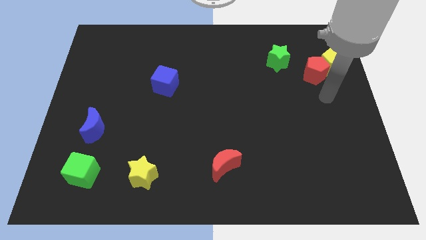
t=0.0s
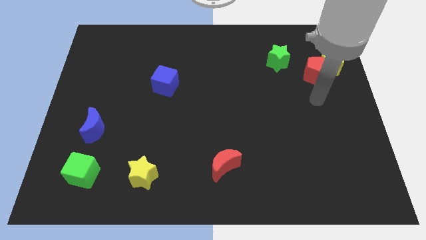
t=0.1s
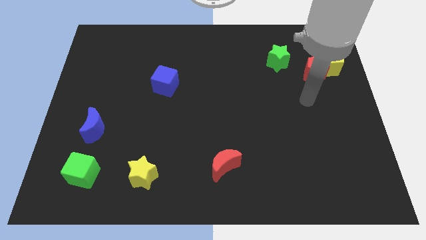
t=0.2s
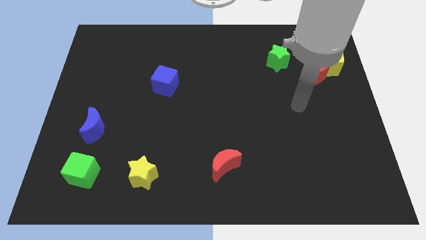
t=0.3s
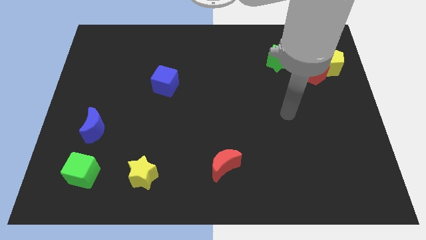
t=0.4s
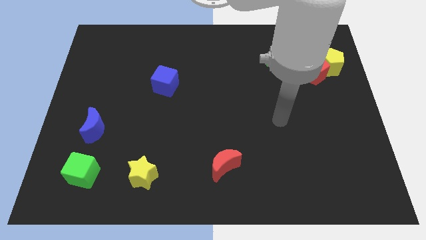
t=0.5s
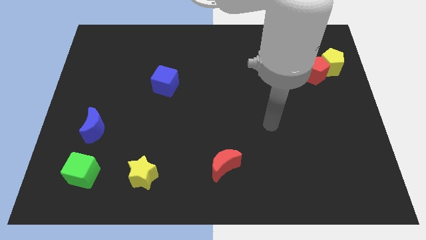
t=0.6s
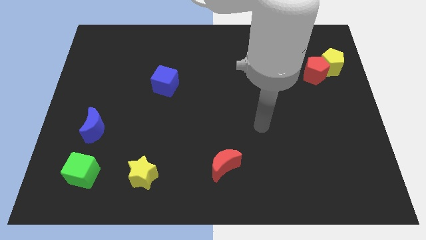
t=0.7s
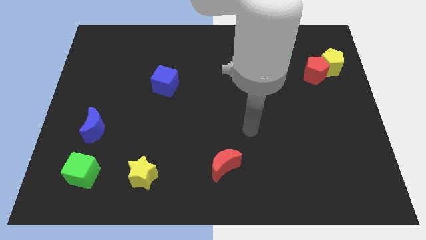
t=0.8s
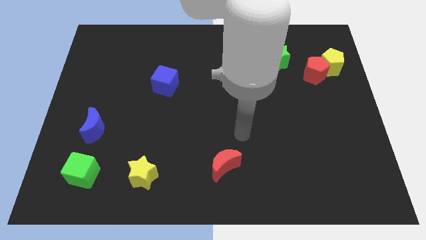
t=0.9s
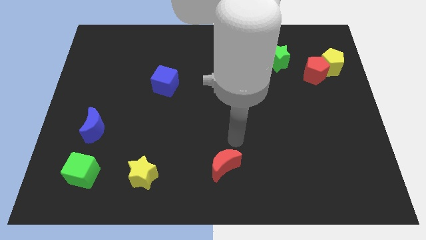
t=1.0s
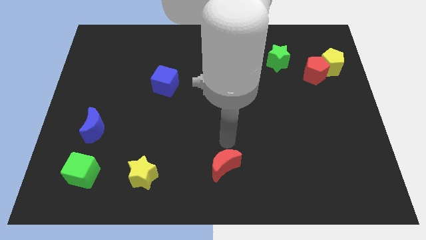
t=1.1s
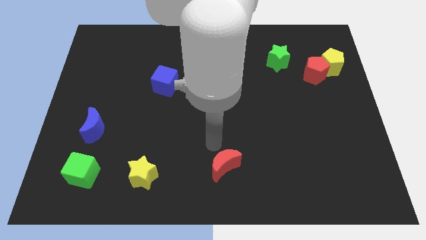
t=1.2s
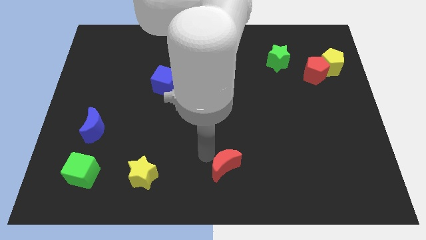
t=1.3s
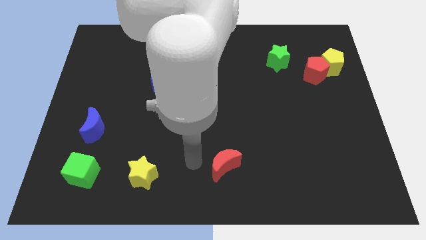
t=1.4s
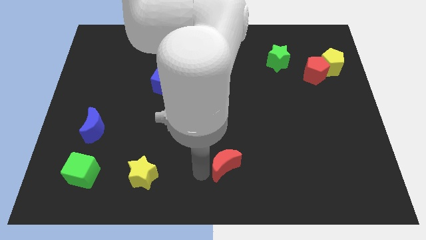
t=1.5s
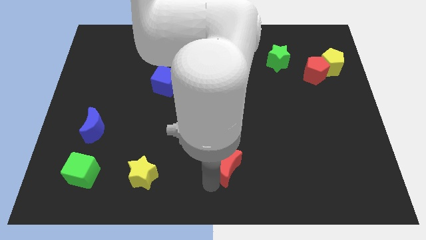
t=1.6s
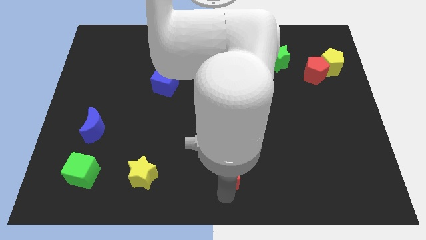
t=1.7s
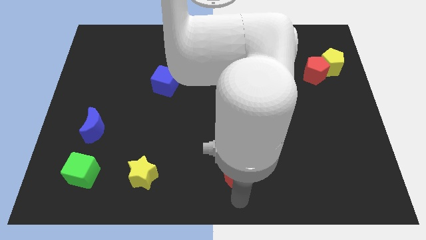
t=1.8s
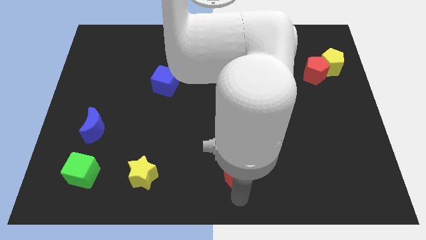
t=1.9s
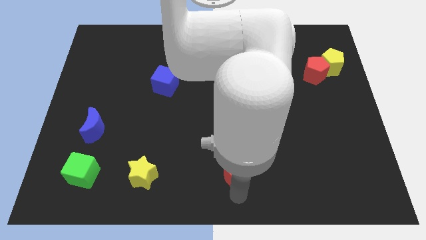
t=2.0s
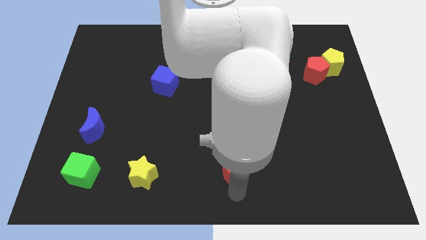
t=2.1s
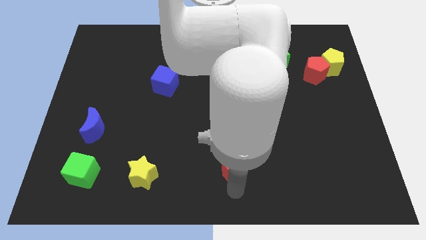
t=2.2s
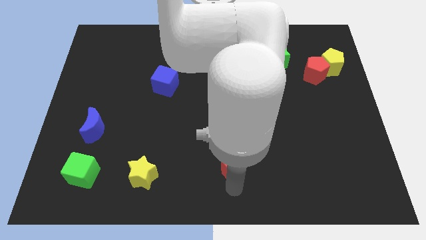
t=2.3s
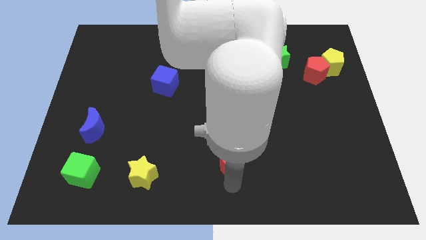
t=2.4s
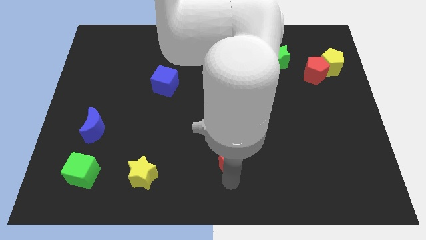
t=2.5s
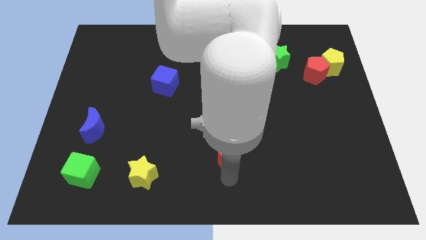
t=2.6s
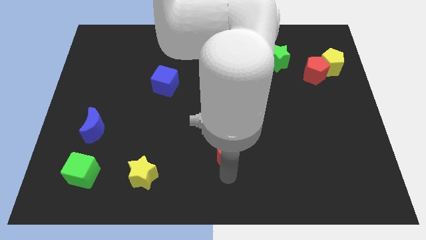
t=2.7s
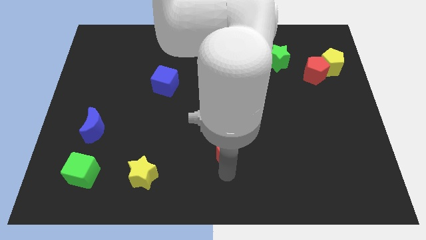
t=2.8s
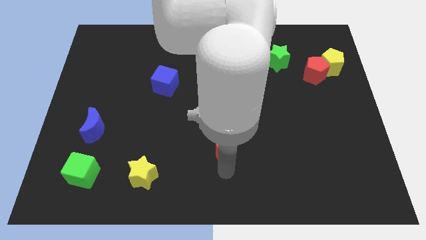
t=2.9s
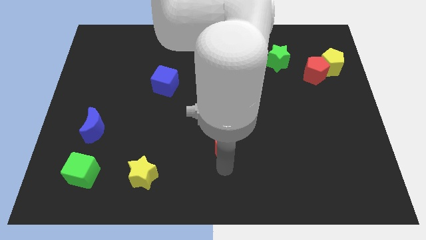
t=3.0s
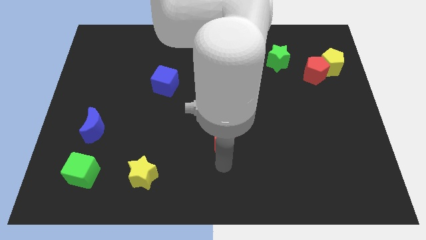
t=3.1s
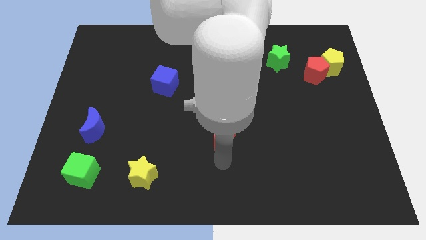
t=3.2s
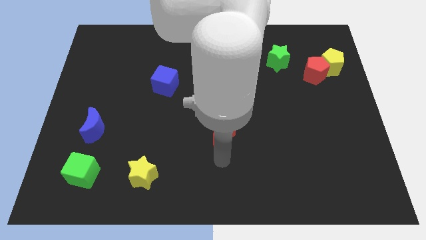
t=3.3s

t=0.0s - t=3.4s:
push the red moon up a little bit

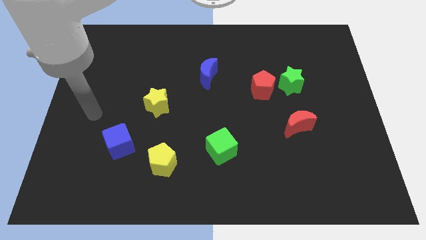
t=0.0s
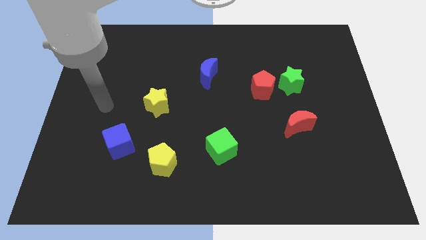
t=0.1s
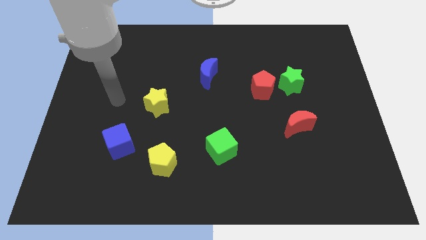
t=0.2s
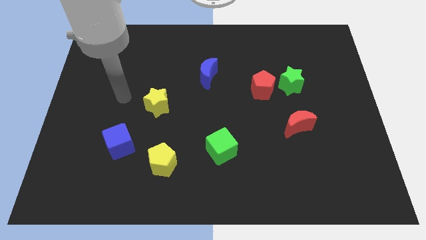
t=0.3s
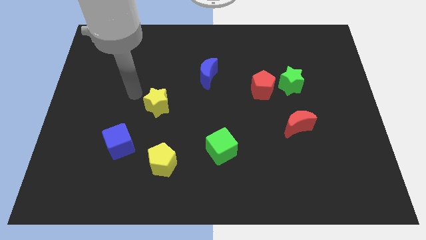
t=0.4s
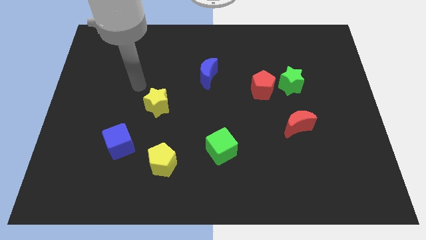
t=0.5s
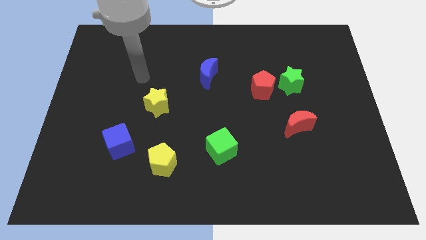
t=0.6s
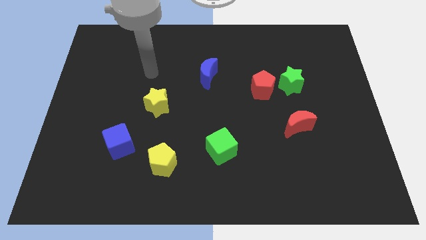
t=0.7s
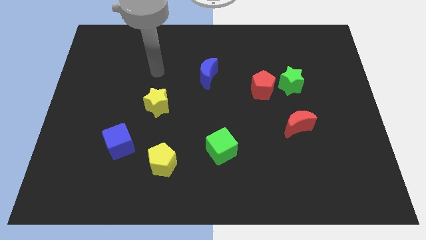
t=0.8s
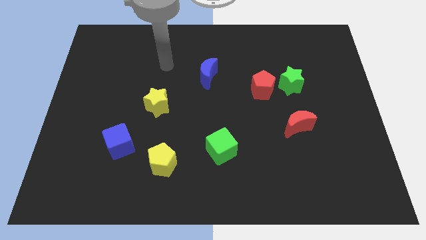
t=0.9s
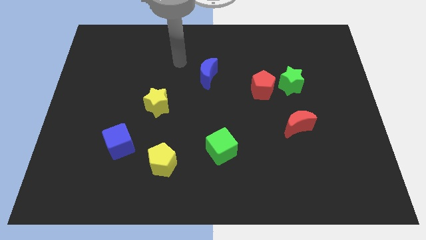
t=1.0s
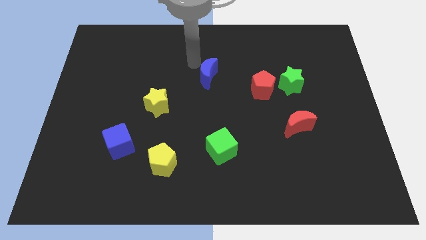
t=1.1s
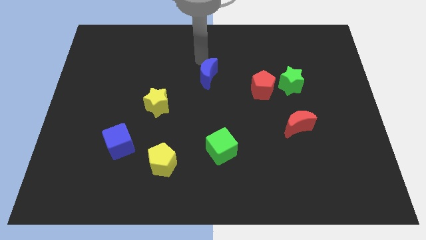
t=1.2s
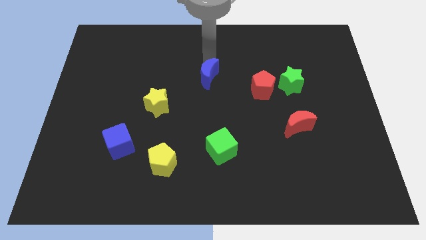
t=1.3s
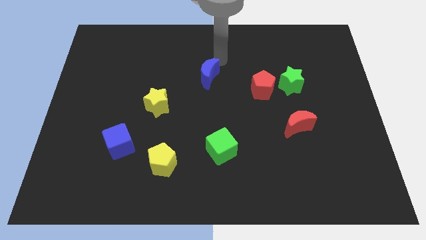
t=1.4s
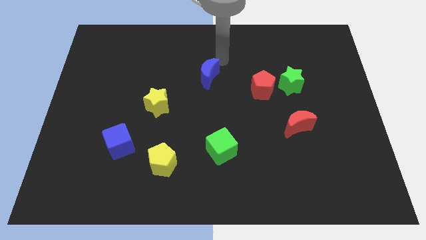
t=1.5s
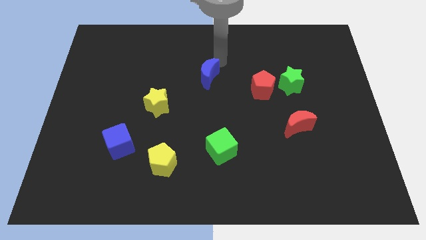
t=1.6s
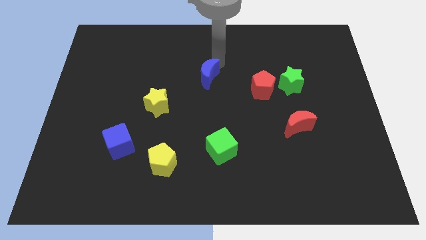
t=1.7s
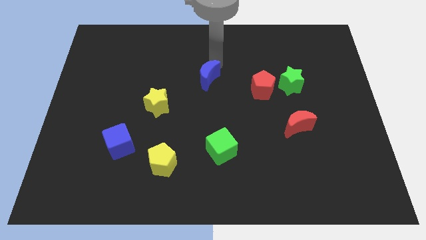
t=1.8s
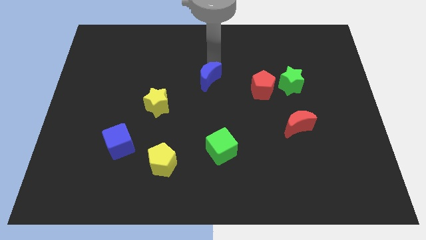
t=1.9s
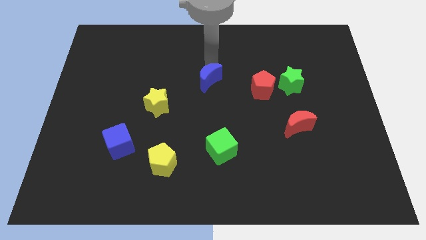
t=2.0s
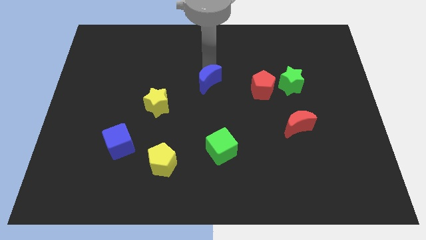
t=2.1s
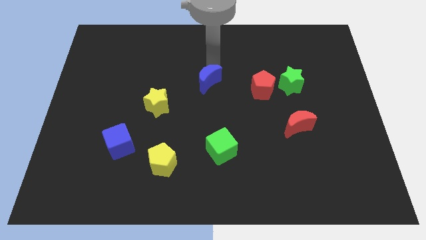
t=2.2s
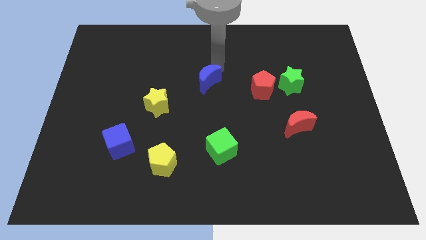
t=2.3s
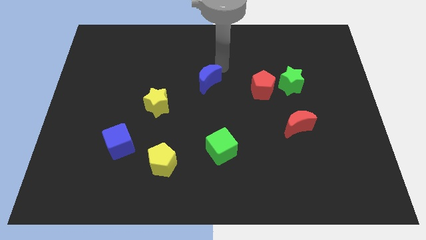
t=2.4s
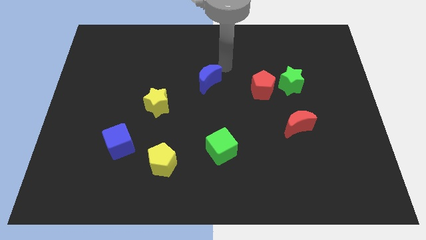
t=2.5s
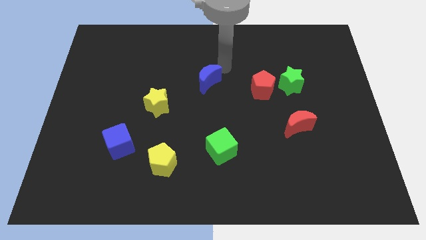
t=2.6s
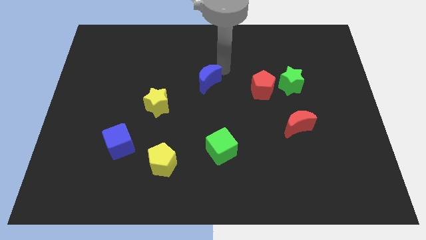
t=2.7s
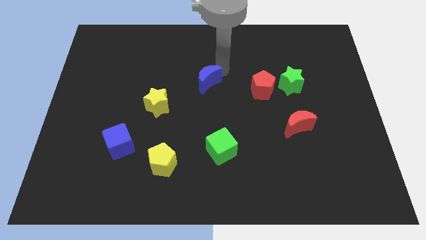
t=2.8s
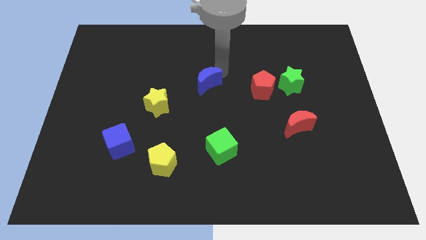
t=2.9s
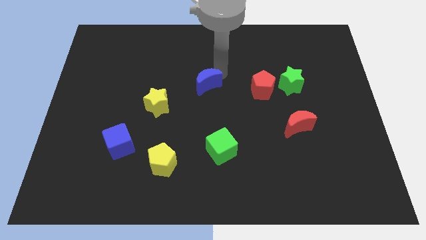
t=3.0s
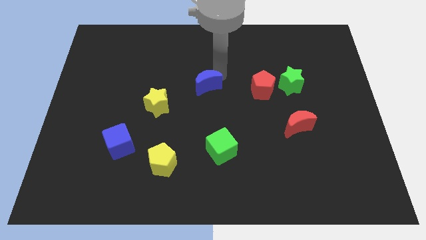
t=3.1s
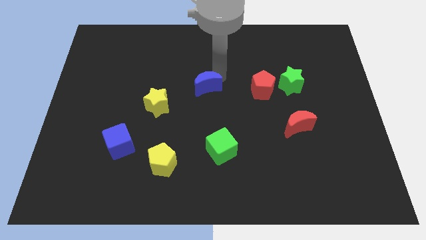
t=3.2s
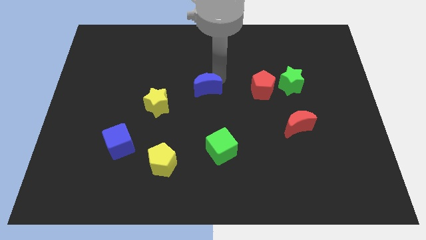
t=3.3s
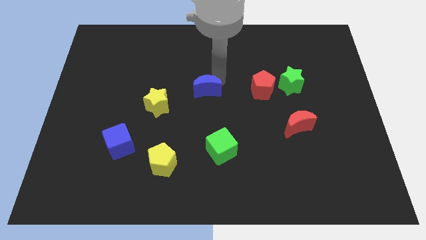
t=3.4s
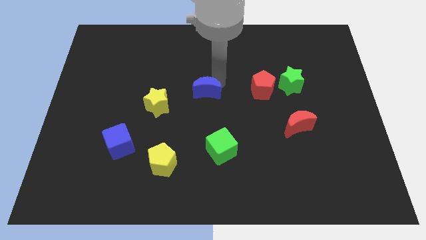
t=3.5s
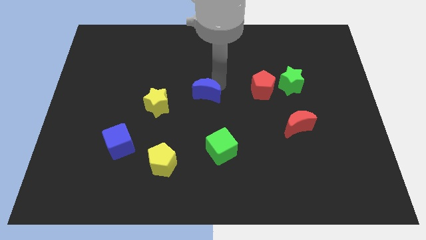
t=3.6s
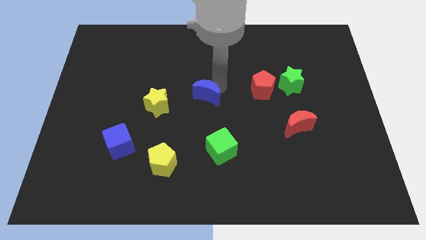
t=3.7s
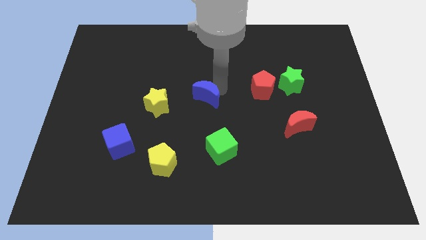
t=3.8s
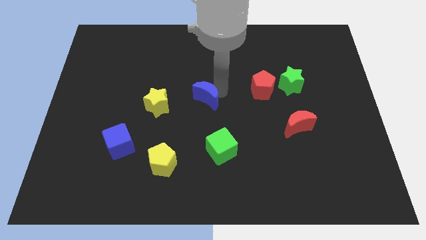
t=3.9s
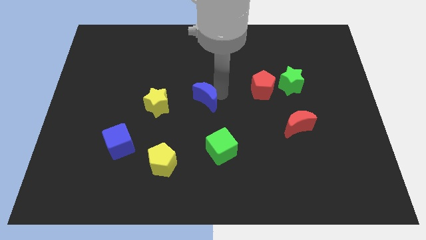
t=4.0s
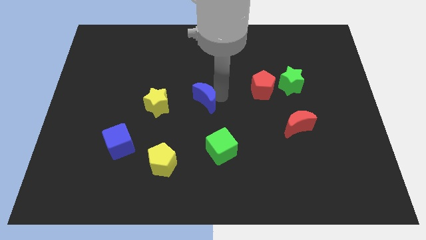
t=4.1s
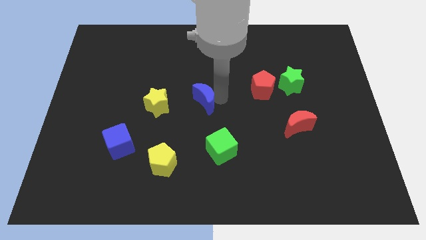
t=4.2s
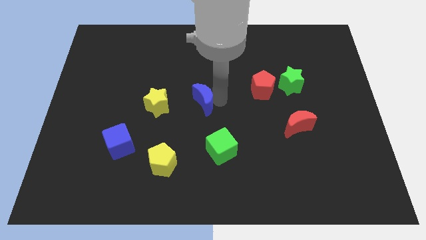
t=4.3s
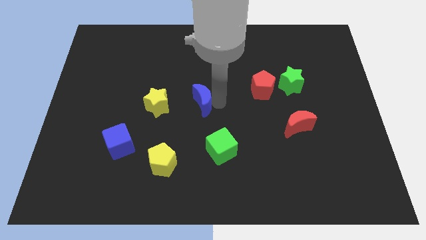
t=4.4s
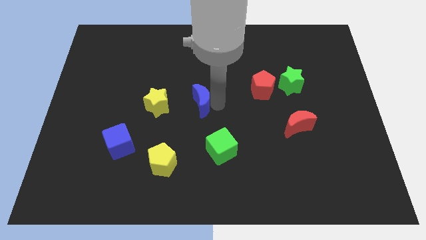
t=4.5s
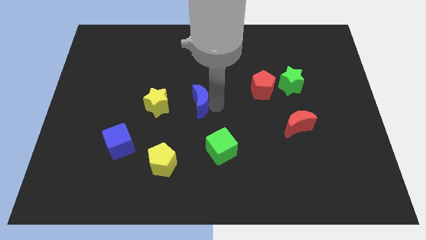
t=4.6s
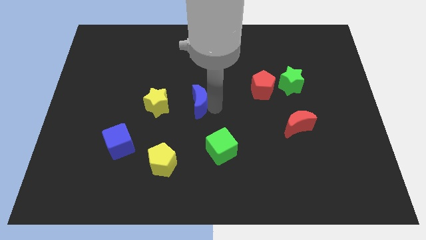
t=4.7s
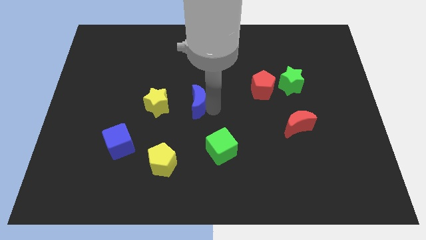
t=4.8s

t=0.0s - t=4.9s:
move the blue moon down and then to the left a little bit
